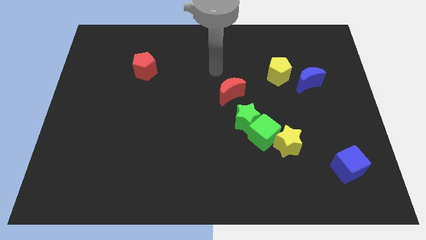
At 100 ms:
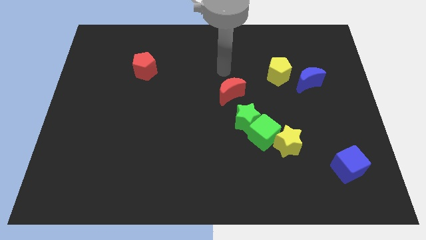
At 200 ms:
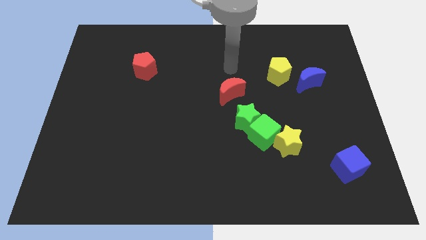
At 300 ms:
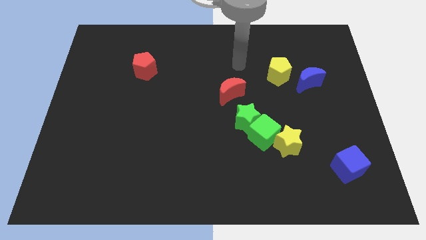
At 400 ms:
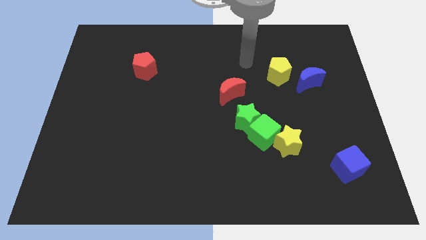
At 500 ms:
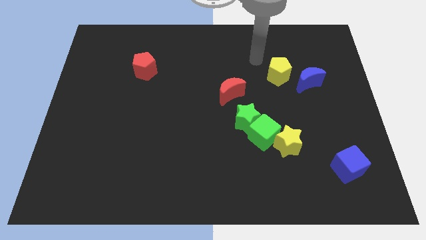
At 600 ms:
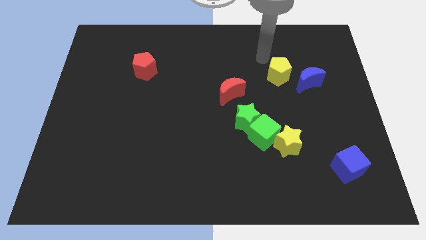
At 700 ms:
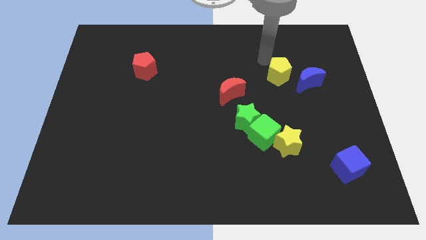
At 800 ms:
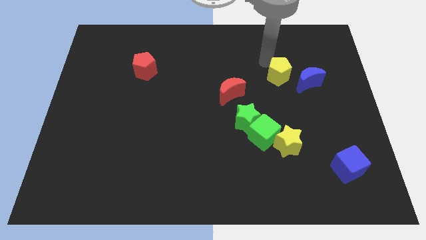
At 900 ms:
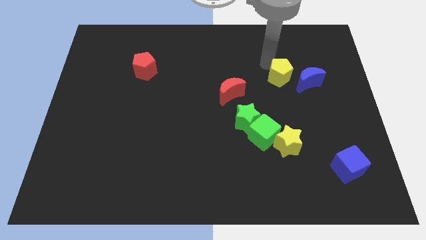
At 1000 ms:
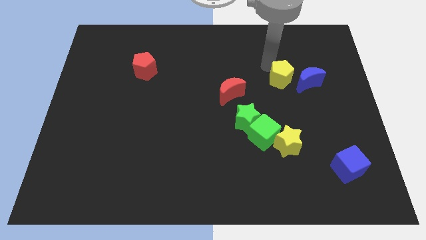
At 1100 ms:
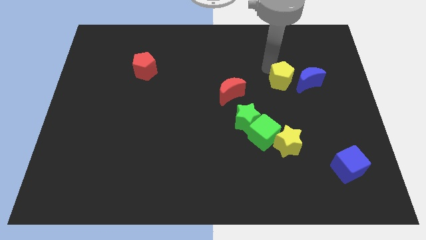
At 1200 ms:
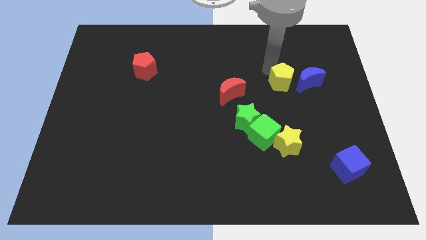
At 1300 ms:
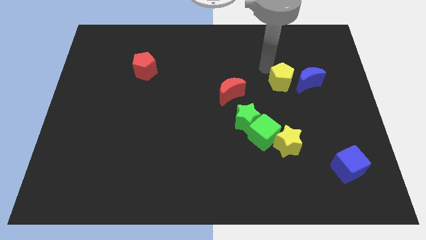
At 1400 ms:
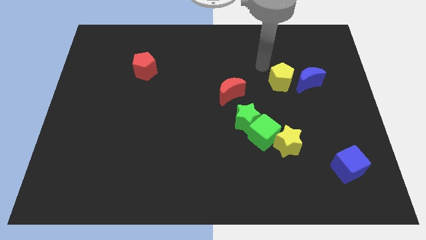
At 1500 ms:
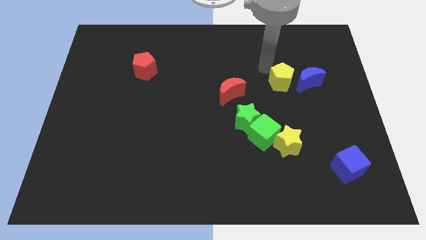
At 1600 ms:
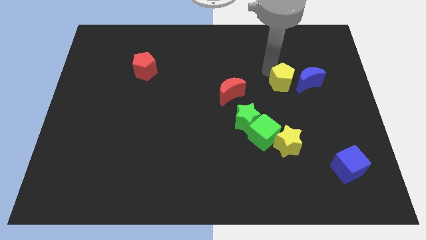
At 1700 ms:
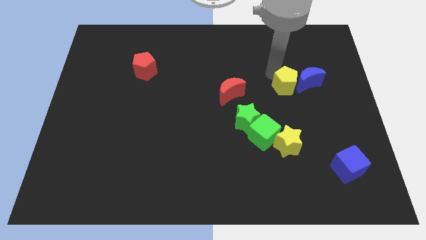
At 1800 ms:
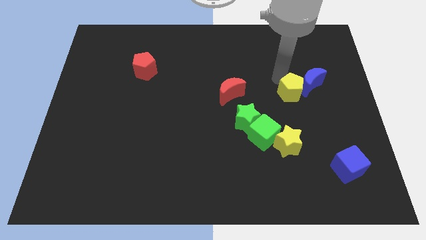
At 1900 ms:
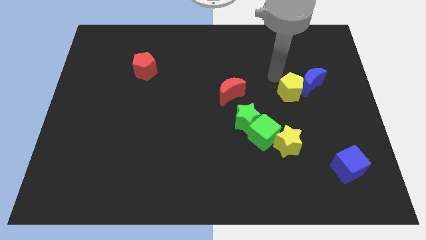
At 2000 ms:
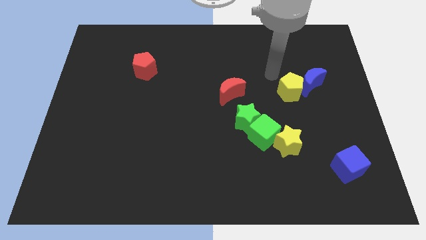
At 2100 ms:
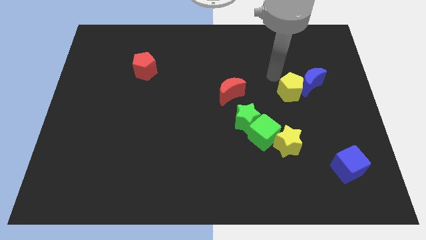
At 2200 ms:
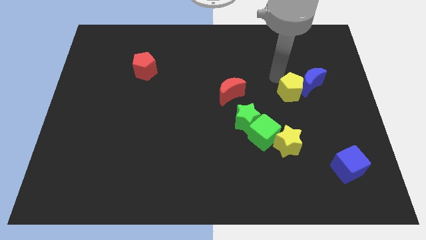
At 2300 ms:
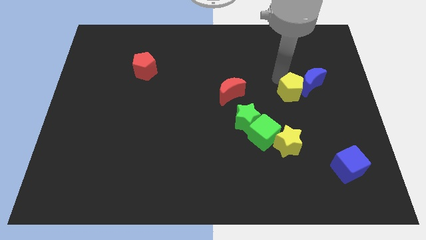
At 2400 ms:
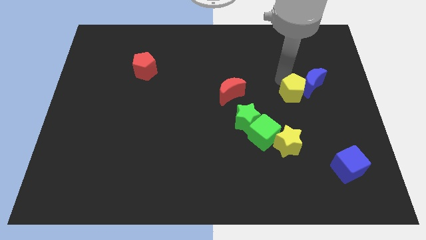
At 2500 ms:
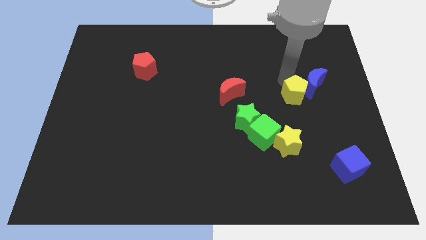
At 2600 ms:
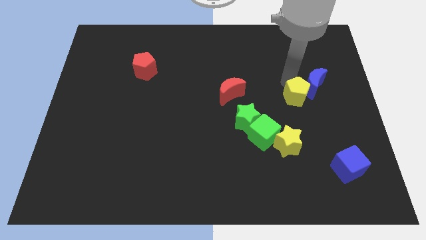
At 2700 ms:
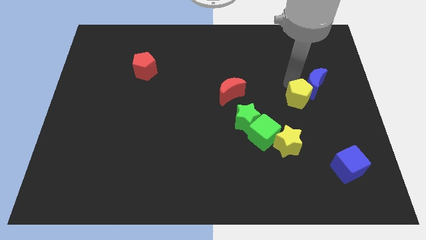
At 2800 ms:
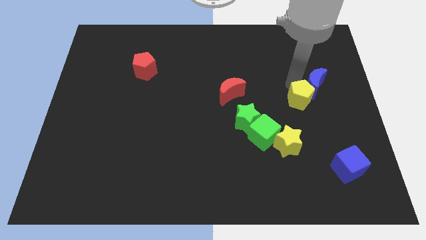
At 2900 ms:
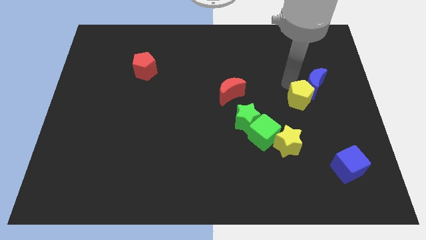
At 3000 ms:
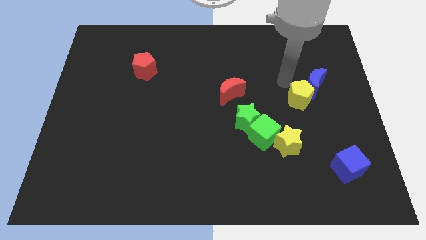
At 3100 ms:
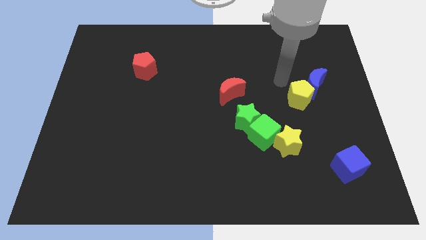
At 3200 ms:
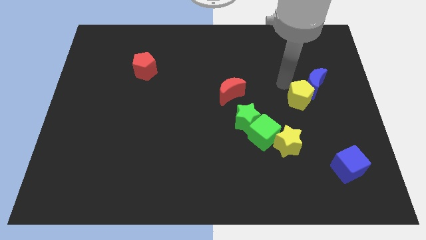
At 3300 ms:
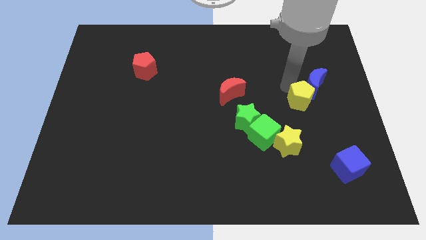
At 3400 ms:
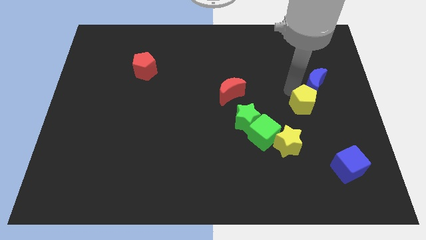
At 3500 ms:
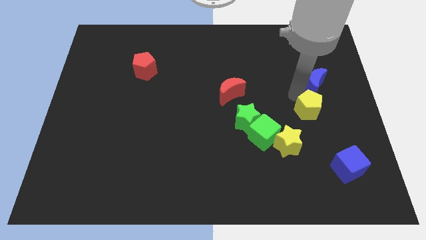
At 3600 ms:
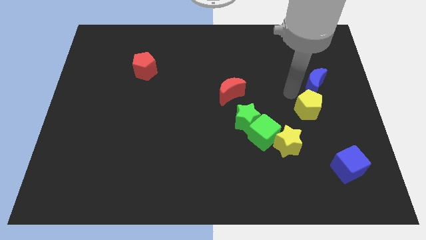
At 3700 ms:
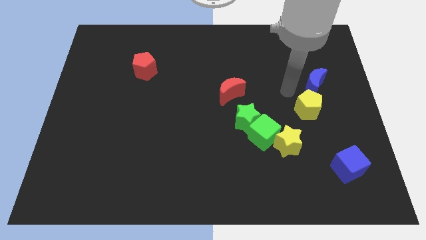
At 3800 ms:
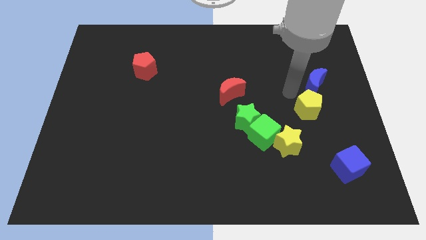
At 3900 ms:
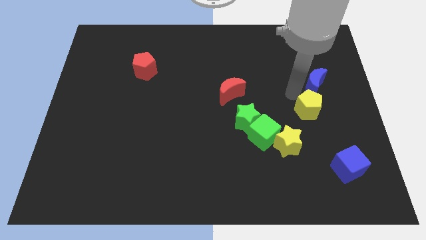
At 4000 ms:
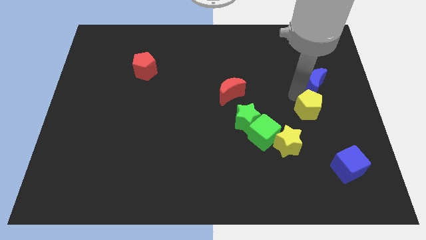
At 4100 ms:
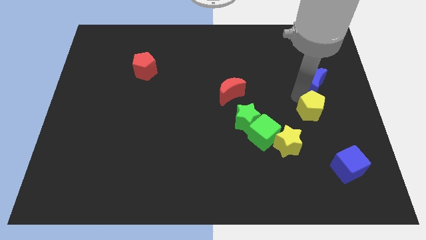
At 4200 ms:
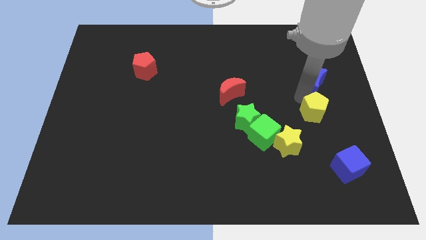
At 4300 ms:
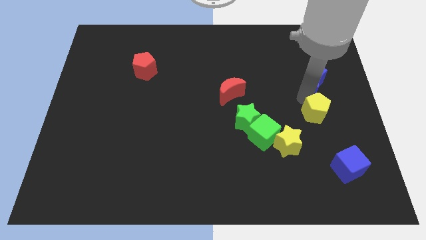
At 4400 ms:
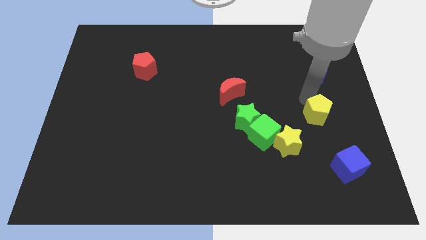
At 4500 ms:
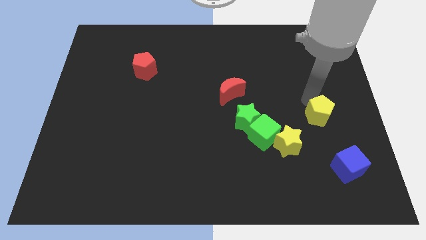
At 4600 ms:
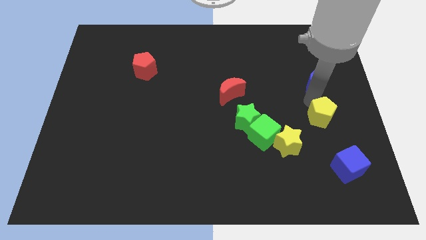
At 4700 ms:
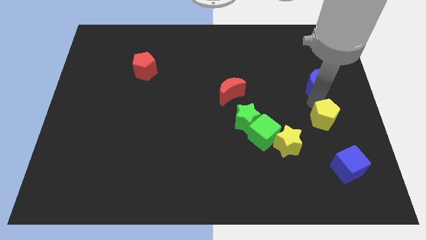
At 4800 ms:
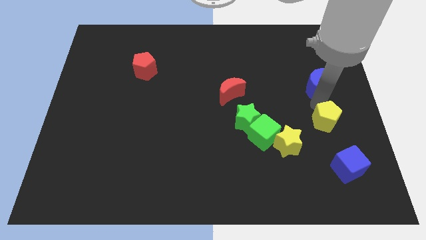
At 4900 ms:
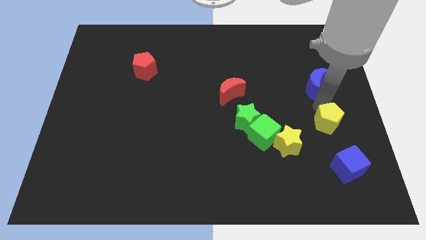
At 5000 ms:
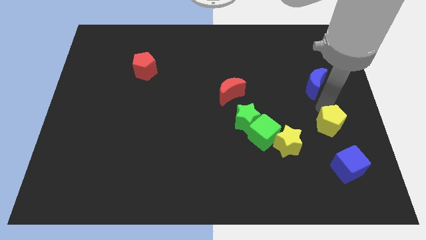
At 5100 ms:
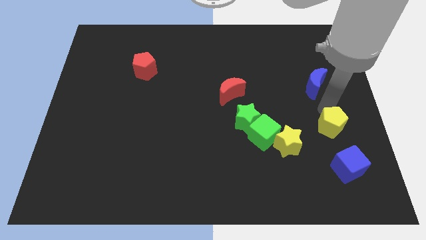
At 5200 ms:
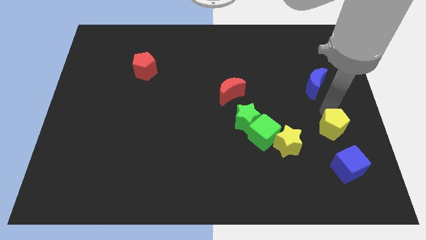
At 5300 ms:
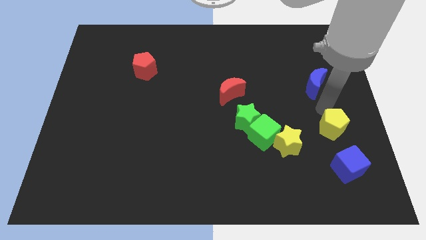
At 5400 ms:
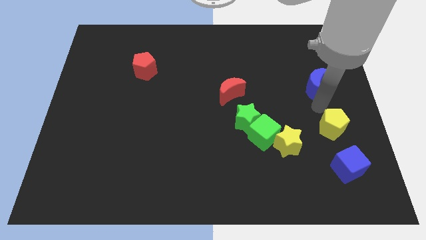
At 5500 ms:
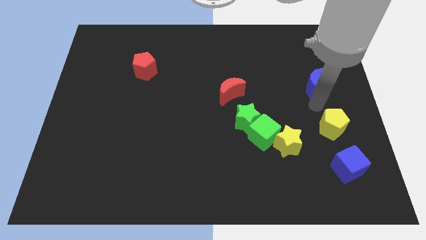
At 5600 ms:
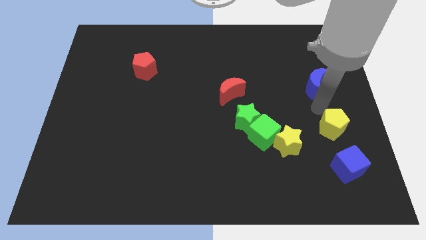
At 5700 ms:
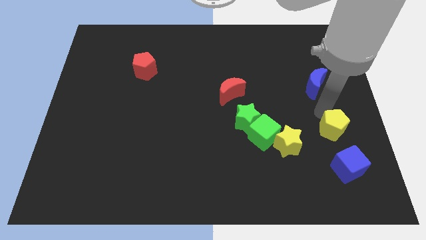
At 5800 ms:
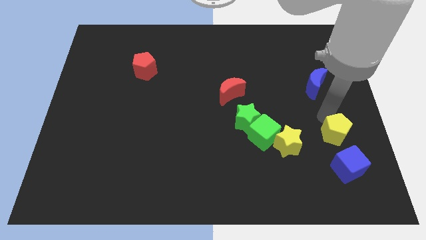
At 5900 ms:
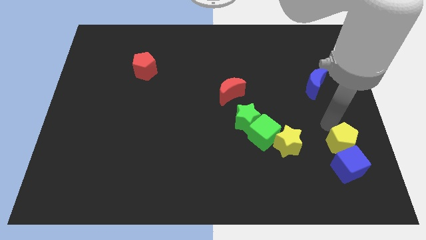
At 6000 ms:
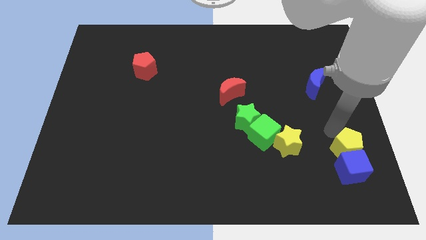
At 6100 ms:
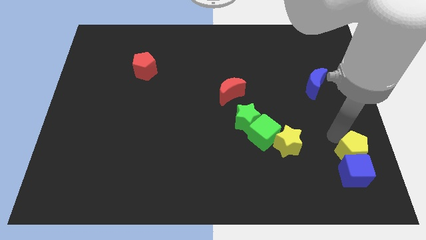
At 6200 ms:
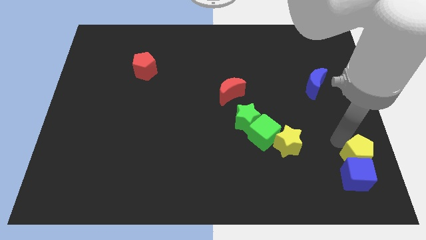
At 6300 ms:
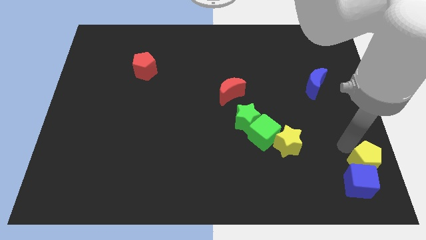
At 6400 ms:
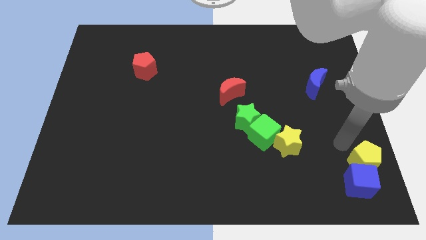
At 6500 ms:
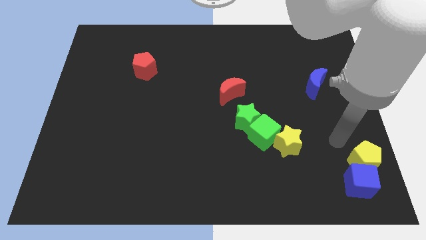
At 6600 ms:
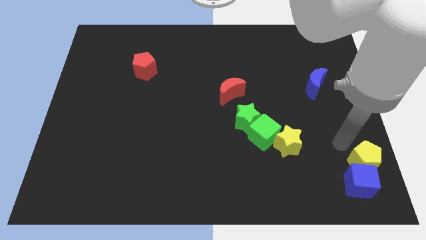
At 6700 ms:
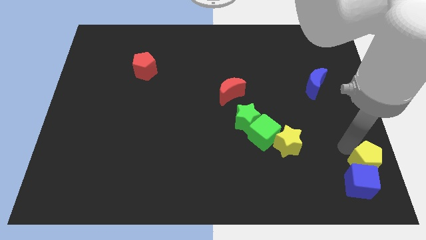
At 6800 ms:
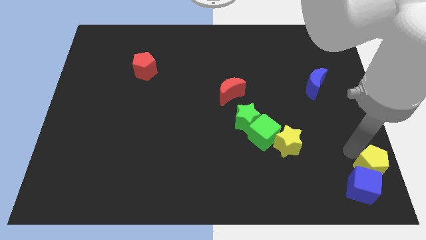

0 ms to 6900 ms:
slide the yellow pentagon to the bottom right corner

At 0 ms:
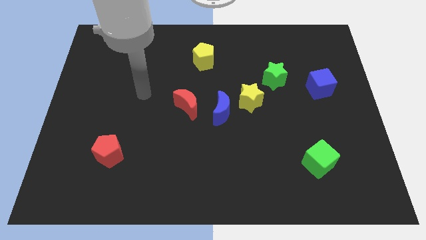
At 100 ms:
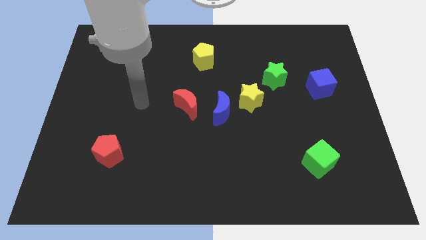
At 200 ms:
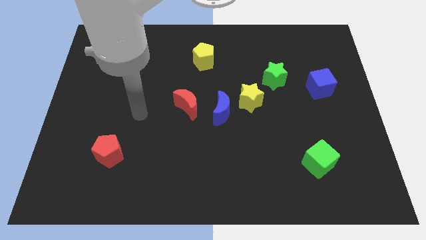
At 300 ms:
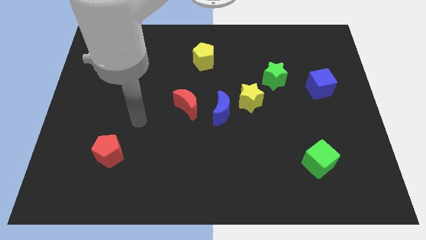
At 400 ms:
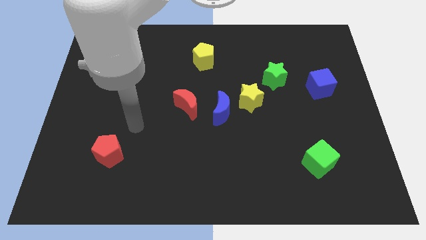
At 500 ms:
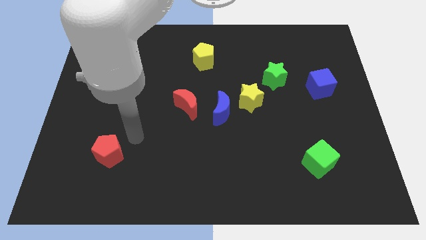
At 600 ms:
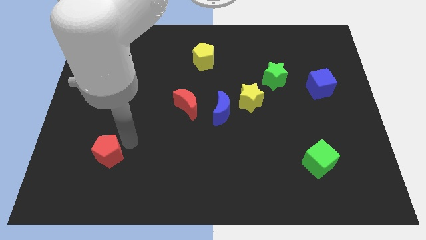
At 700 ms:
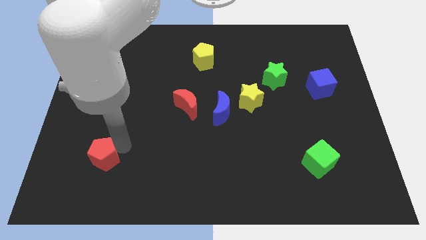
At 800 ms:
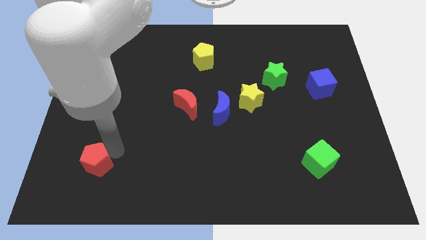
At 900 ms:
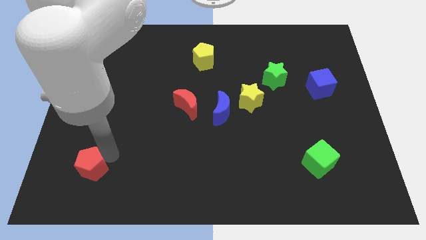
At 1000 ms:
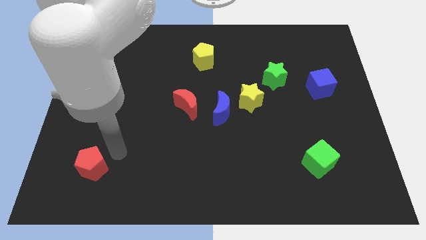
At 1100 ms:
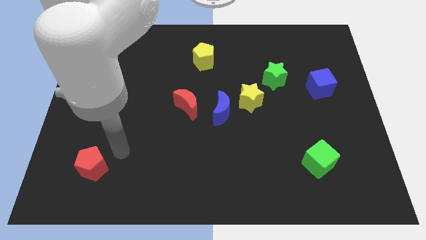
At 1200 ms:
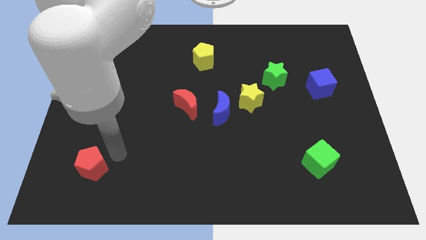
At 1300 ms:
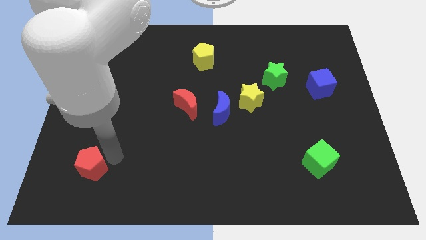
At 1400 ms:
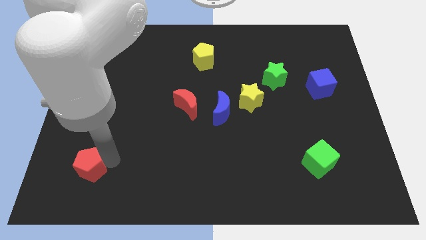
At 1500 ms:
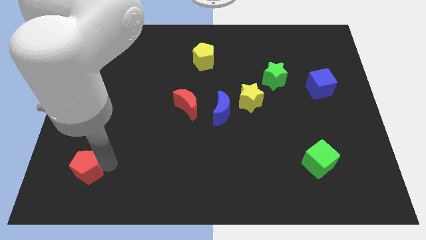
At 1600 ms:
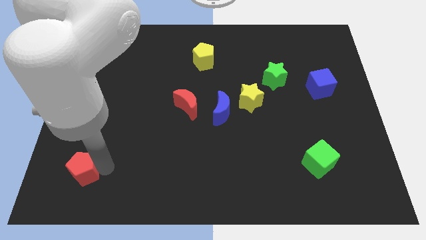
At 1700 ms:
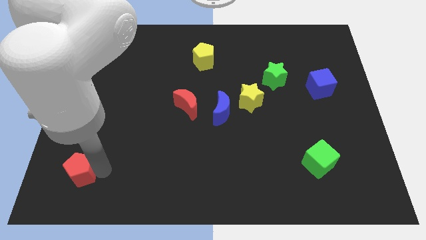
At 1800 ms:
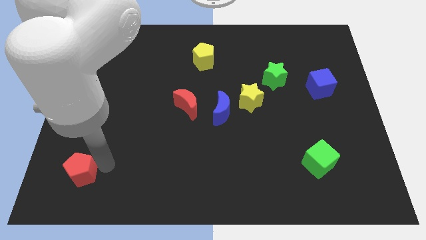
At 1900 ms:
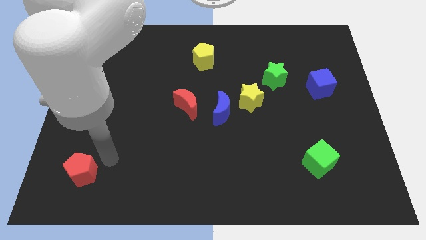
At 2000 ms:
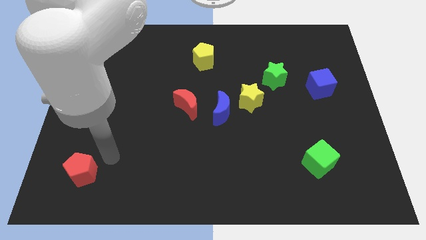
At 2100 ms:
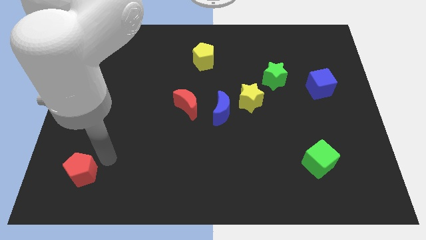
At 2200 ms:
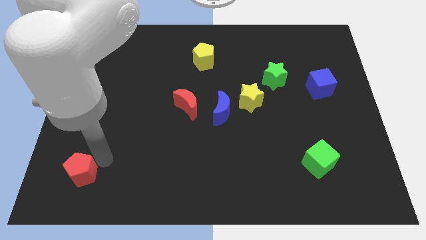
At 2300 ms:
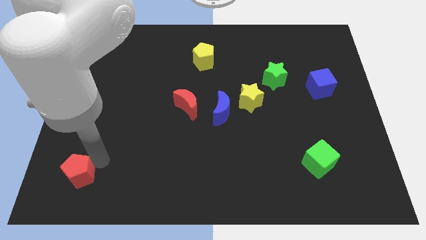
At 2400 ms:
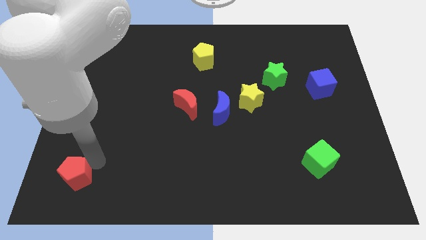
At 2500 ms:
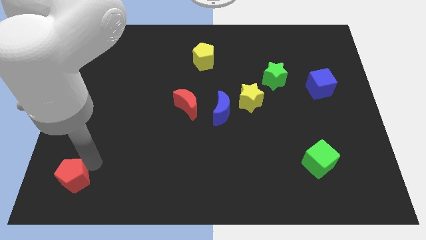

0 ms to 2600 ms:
move the red pentagon to the bottom left
